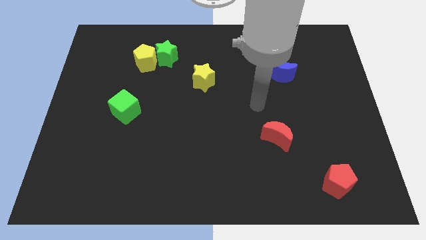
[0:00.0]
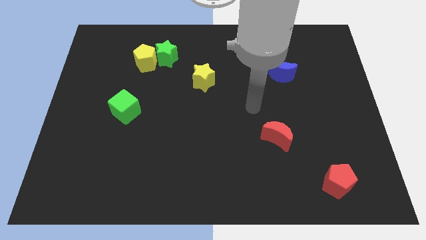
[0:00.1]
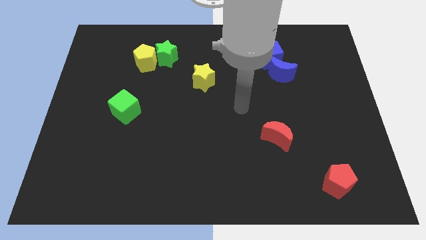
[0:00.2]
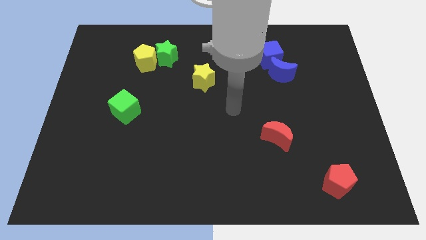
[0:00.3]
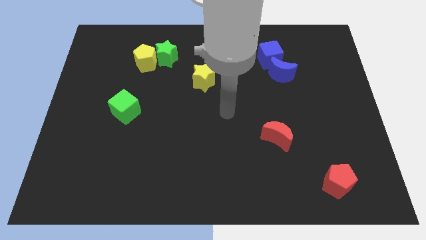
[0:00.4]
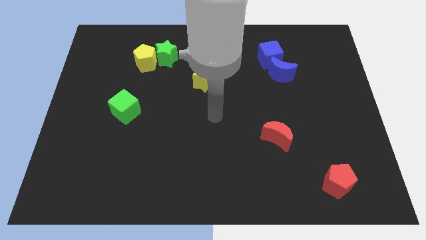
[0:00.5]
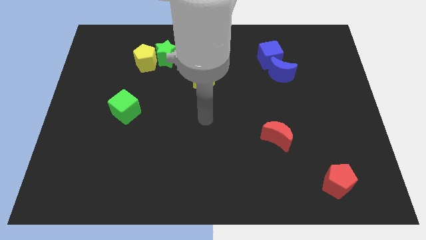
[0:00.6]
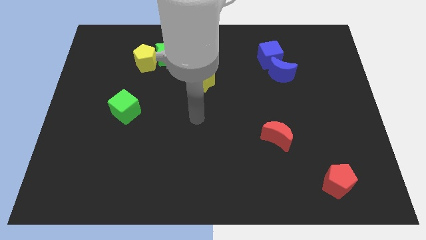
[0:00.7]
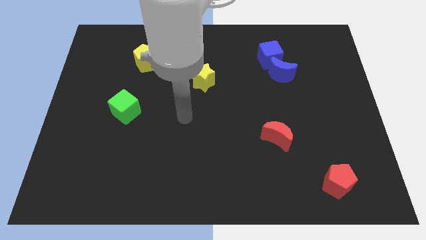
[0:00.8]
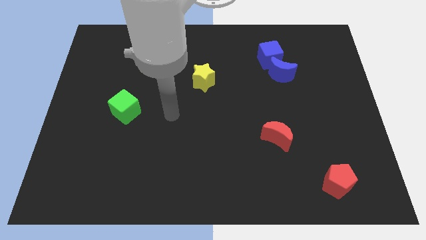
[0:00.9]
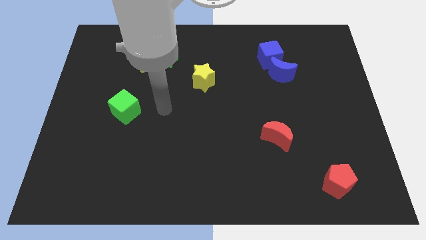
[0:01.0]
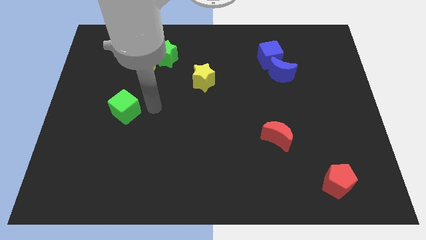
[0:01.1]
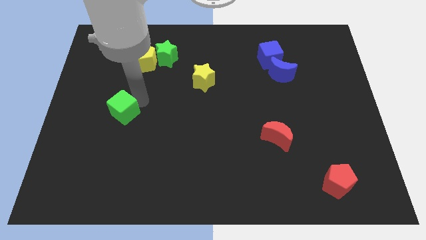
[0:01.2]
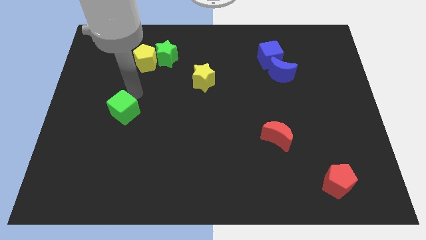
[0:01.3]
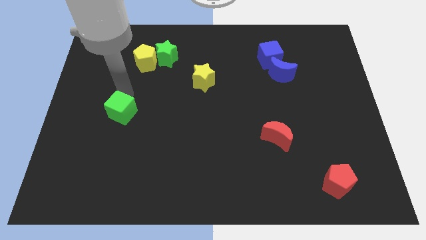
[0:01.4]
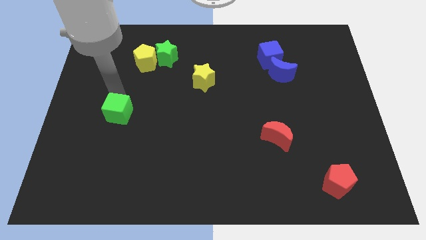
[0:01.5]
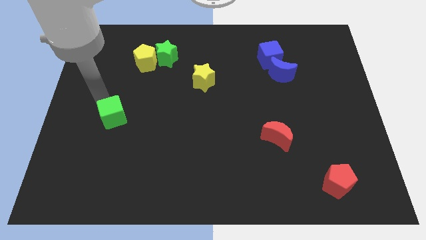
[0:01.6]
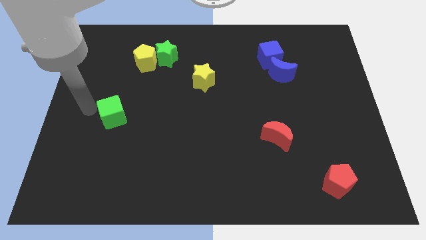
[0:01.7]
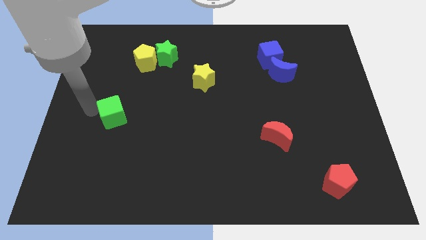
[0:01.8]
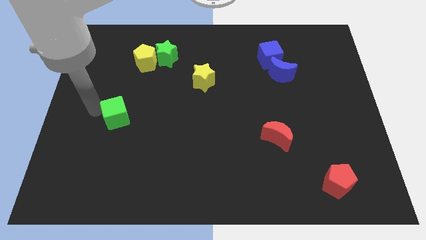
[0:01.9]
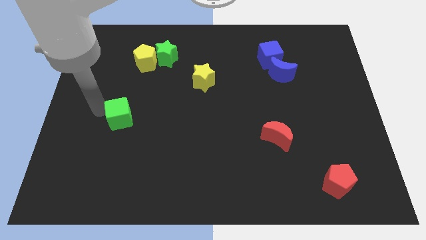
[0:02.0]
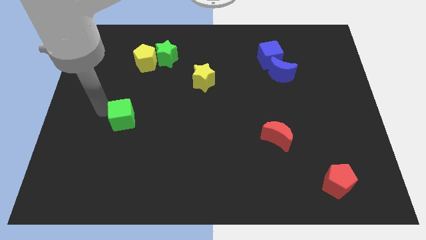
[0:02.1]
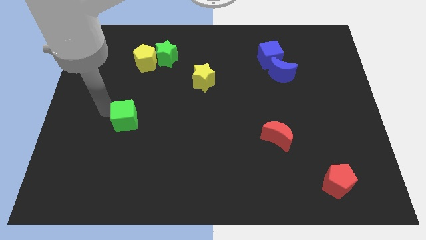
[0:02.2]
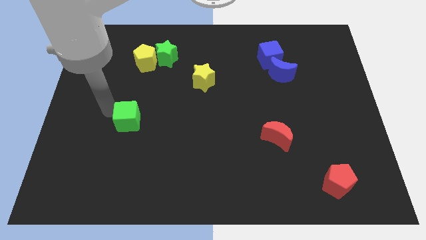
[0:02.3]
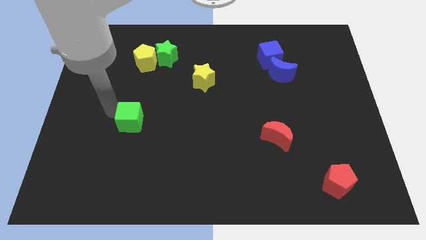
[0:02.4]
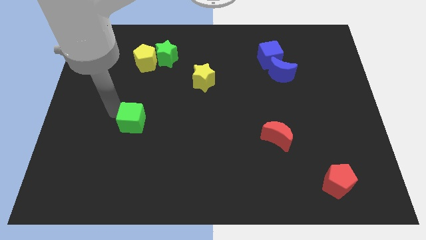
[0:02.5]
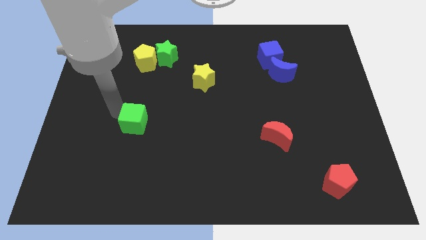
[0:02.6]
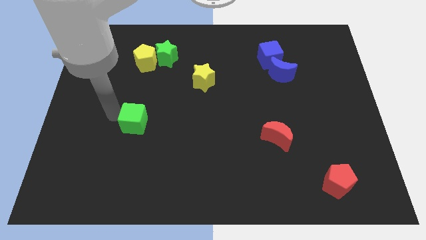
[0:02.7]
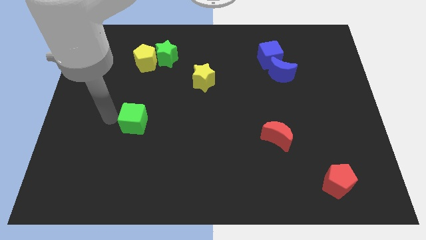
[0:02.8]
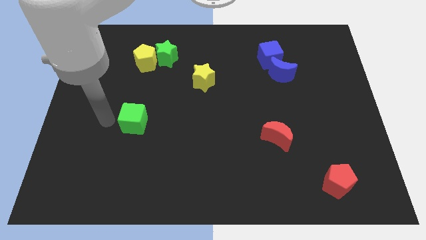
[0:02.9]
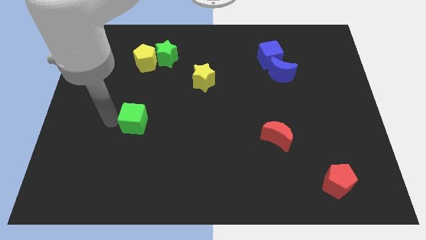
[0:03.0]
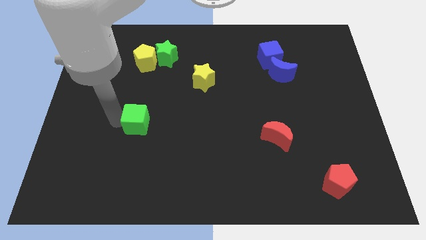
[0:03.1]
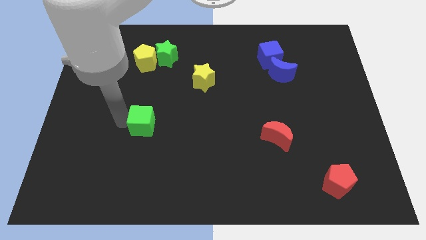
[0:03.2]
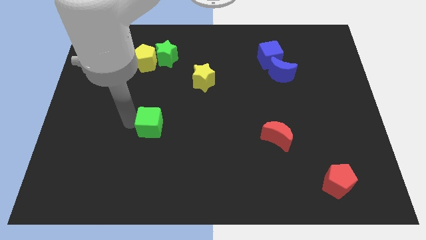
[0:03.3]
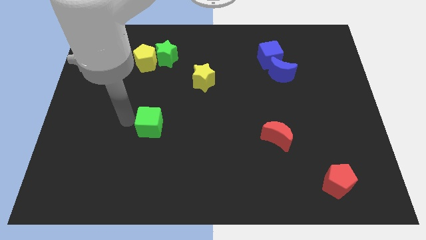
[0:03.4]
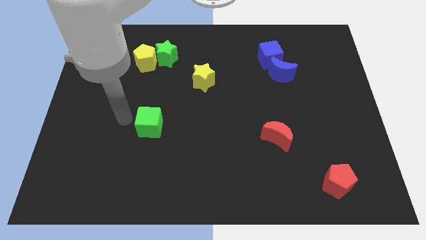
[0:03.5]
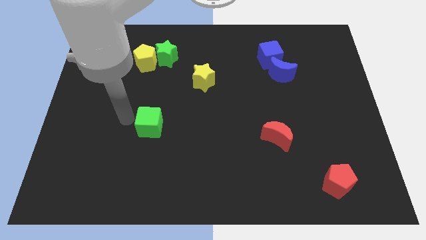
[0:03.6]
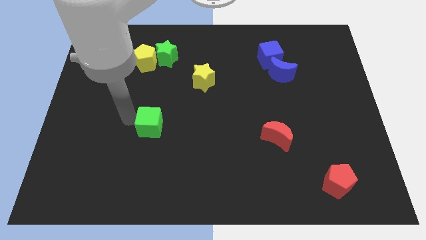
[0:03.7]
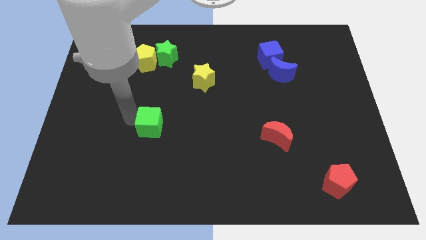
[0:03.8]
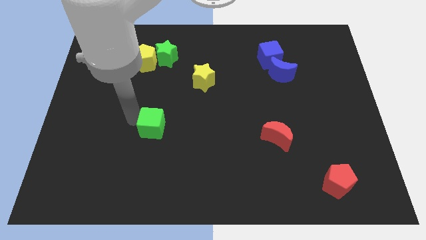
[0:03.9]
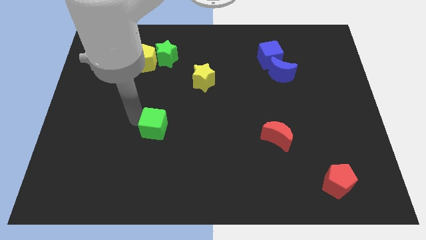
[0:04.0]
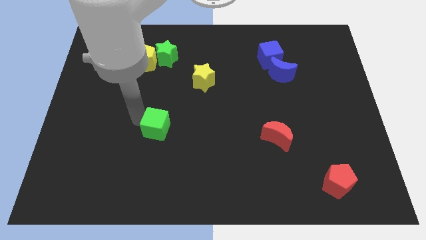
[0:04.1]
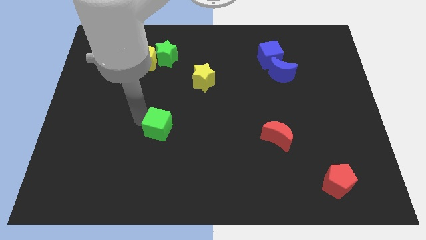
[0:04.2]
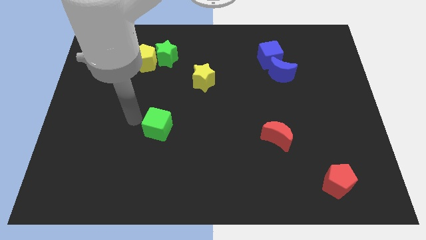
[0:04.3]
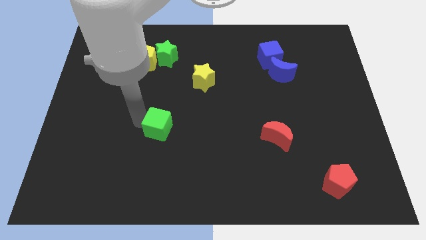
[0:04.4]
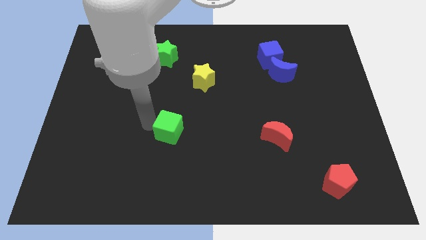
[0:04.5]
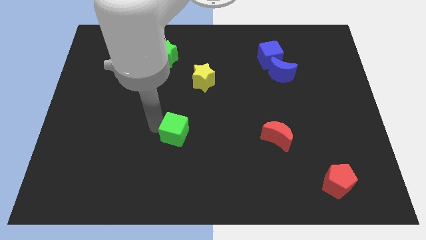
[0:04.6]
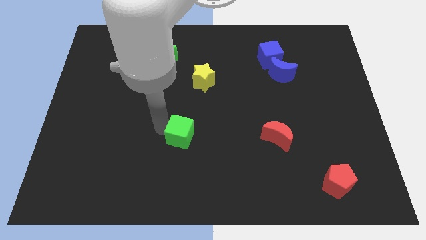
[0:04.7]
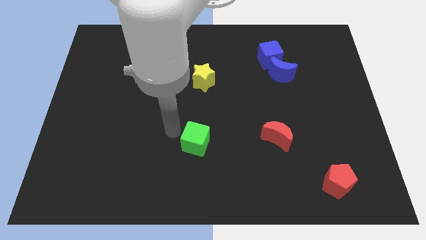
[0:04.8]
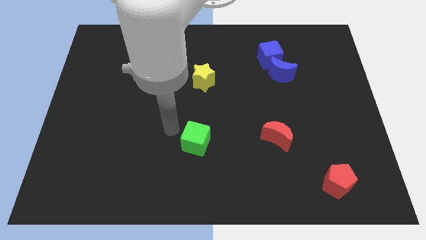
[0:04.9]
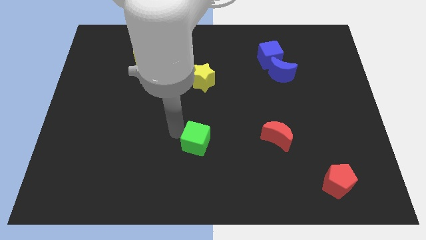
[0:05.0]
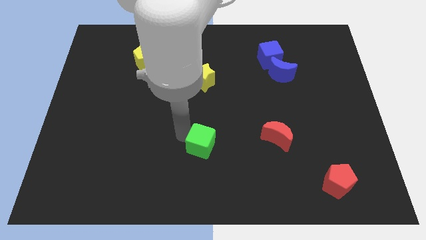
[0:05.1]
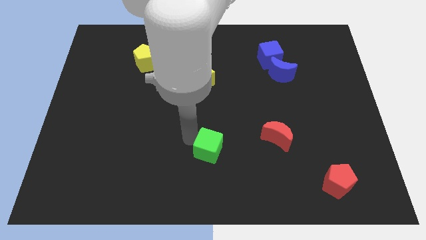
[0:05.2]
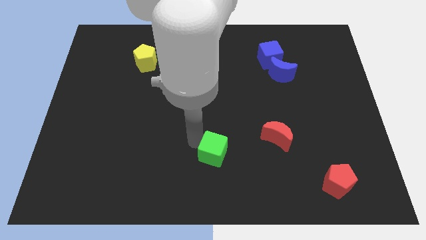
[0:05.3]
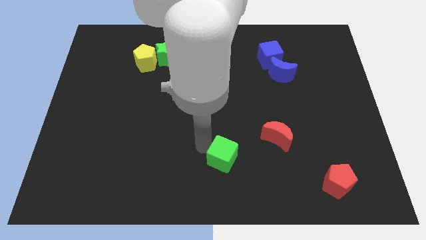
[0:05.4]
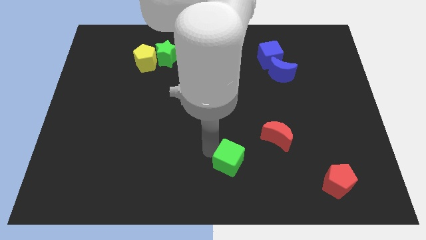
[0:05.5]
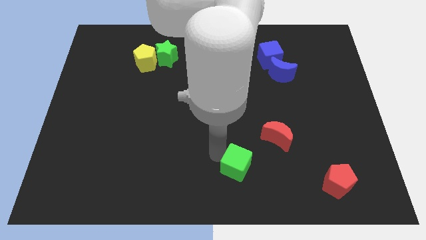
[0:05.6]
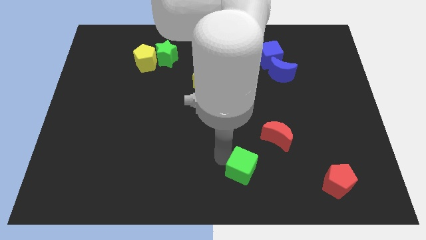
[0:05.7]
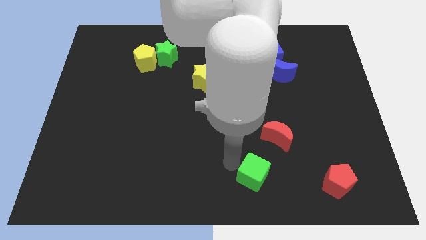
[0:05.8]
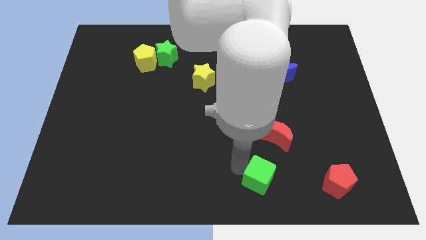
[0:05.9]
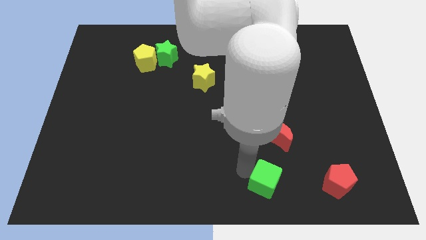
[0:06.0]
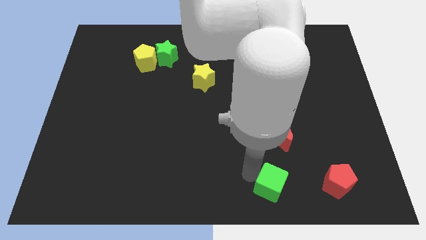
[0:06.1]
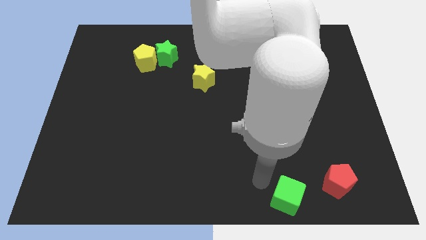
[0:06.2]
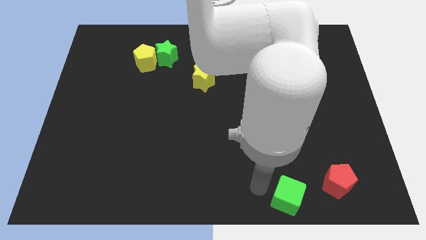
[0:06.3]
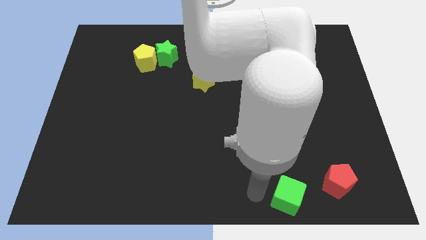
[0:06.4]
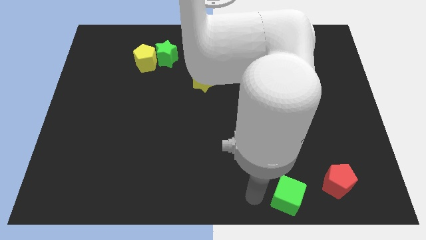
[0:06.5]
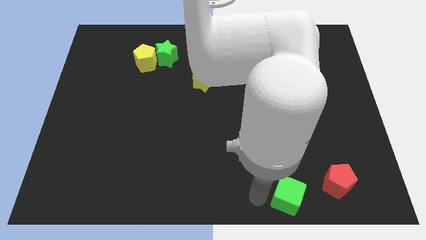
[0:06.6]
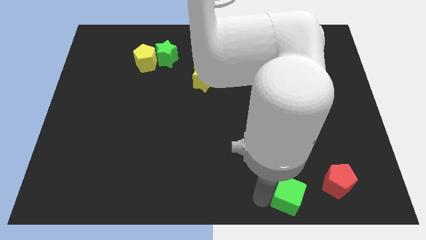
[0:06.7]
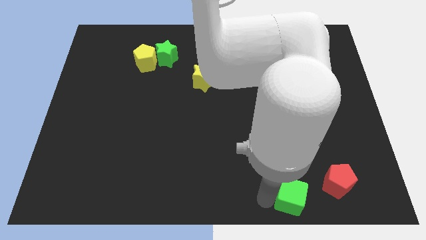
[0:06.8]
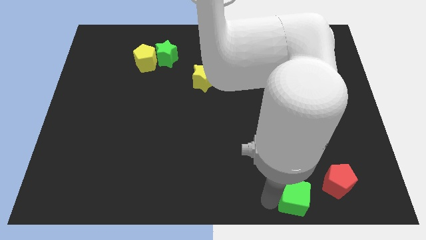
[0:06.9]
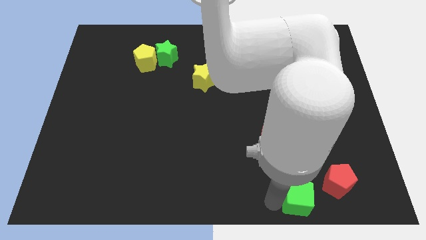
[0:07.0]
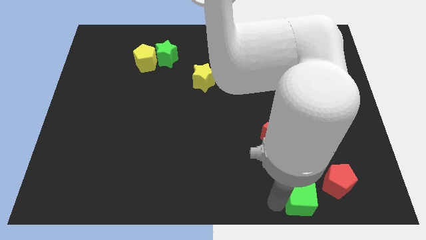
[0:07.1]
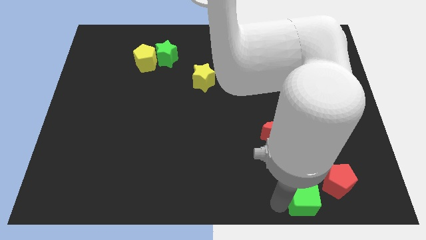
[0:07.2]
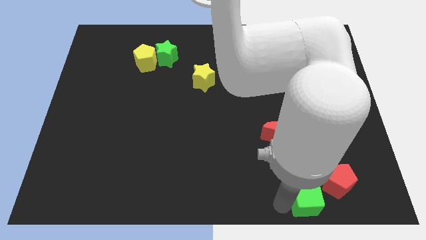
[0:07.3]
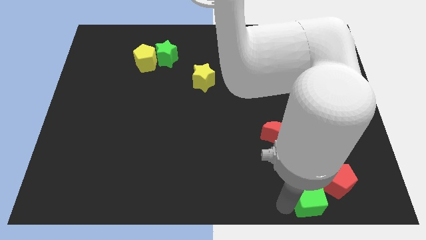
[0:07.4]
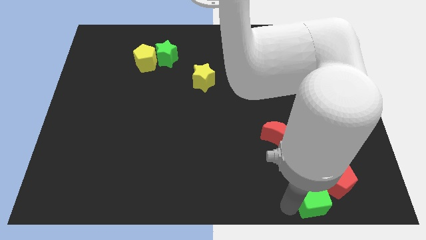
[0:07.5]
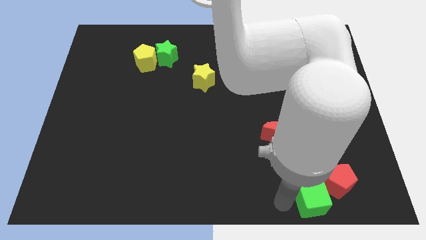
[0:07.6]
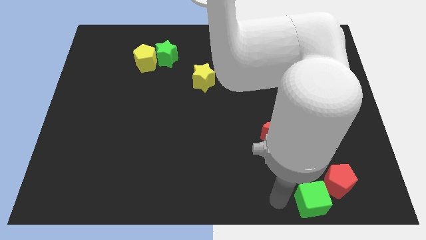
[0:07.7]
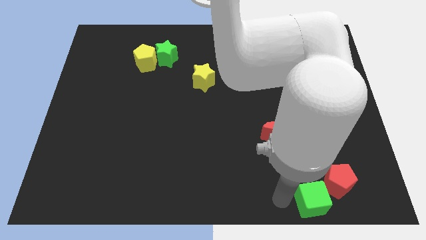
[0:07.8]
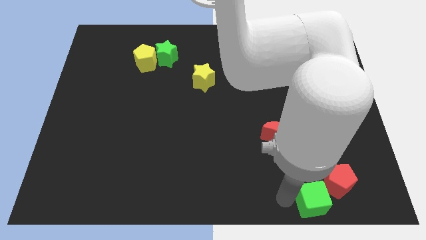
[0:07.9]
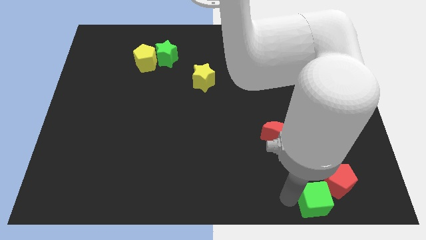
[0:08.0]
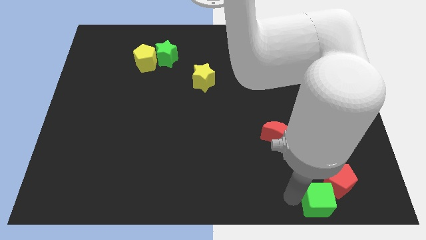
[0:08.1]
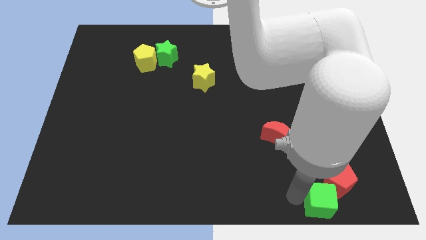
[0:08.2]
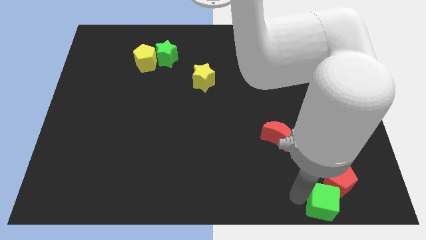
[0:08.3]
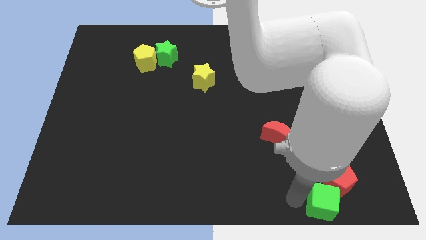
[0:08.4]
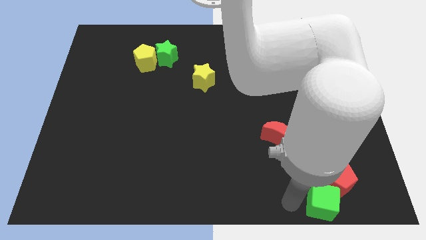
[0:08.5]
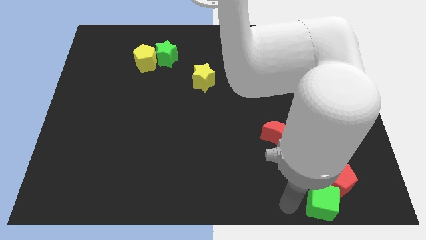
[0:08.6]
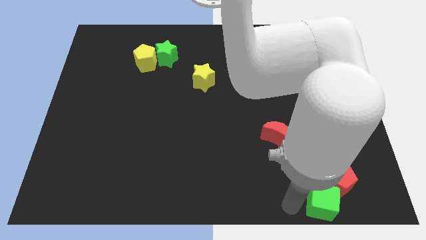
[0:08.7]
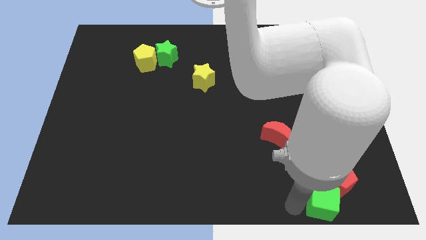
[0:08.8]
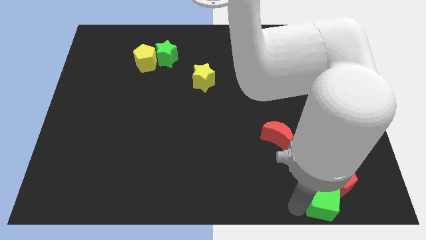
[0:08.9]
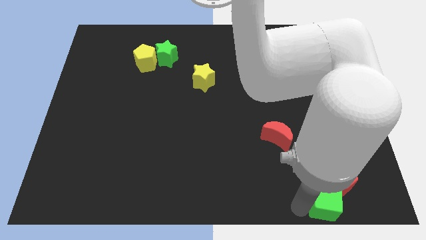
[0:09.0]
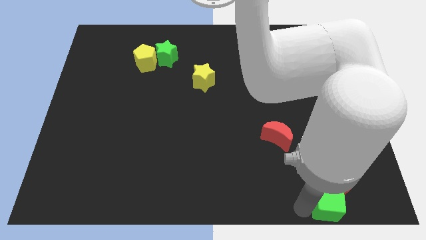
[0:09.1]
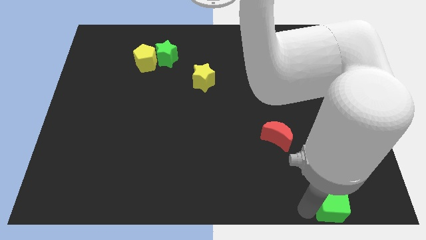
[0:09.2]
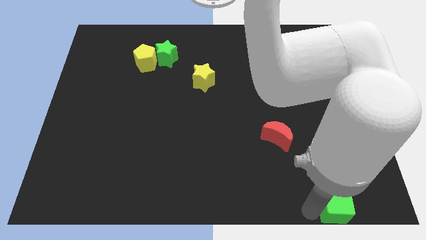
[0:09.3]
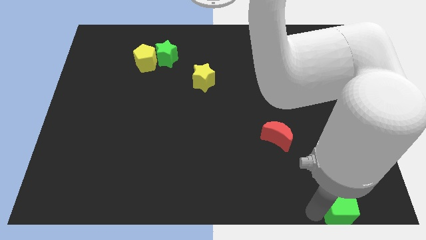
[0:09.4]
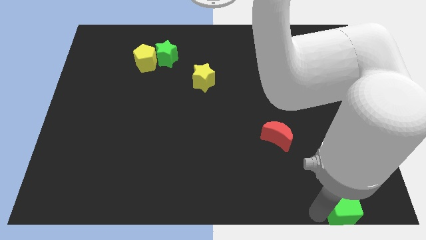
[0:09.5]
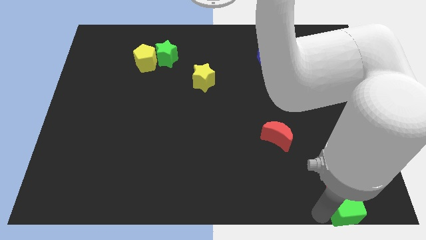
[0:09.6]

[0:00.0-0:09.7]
push the green cube to the bottom right of the board
